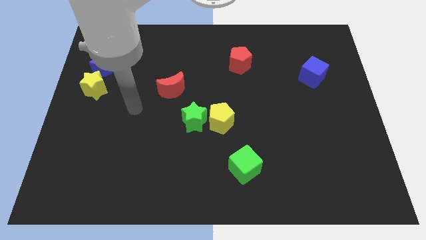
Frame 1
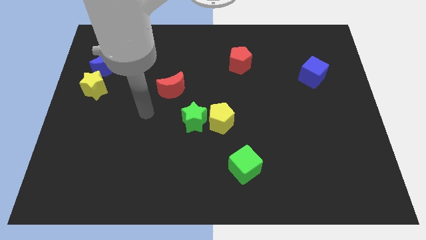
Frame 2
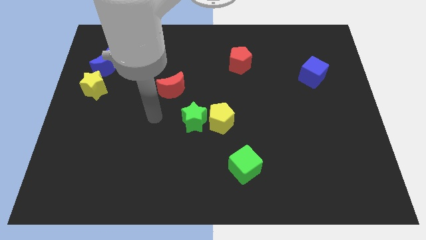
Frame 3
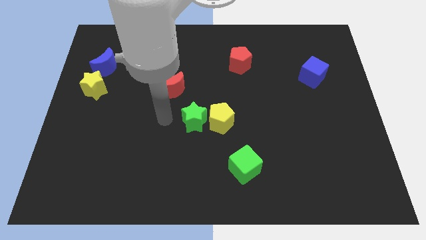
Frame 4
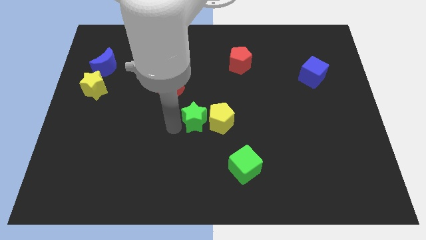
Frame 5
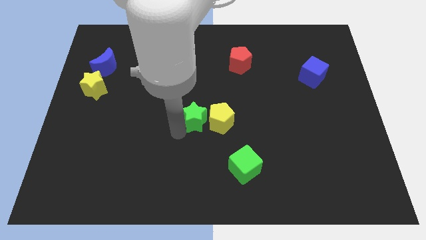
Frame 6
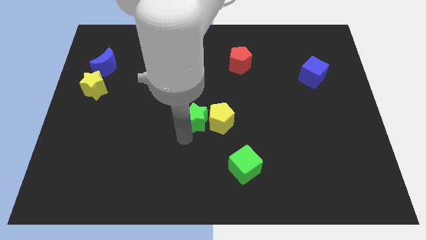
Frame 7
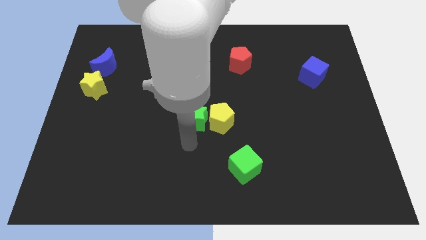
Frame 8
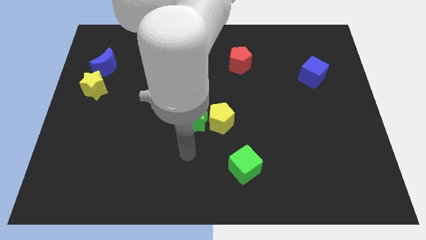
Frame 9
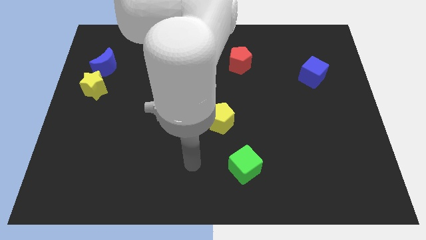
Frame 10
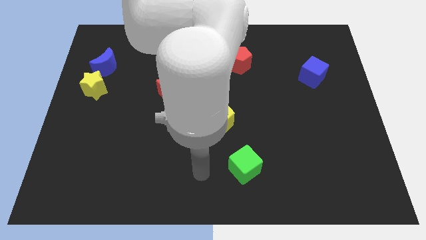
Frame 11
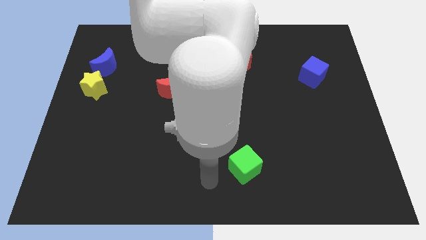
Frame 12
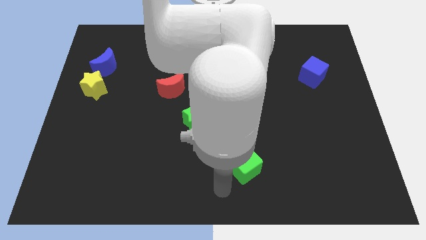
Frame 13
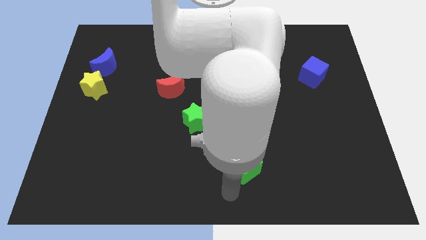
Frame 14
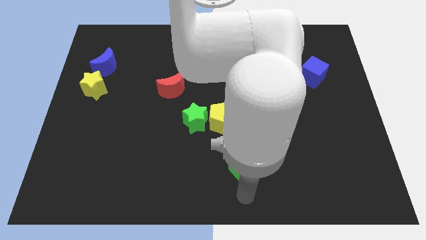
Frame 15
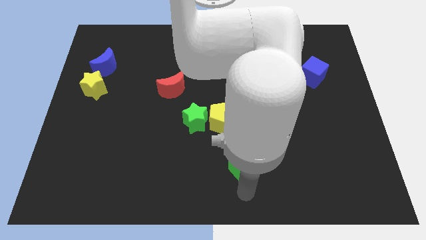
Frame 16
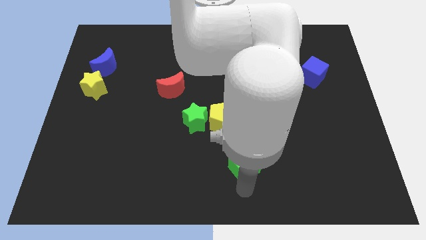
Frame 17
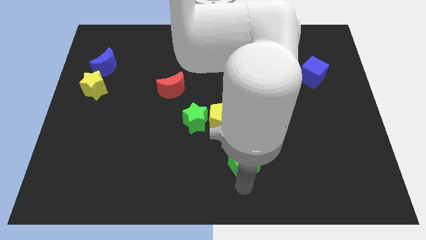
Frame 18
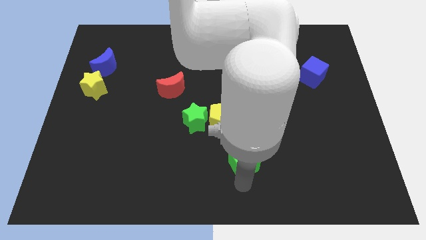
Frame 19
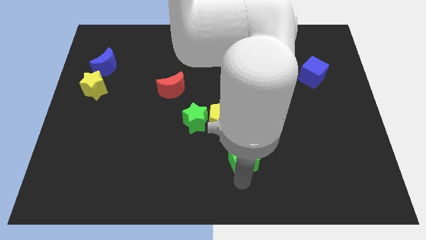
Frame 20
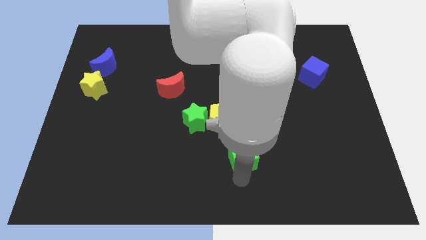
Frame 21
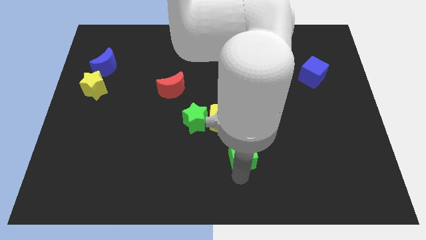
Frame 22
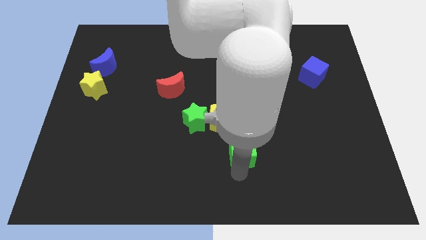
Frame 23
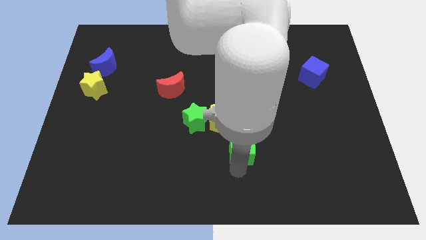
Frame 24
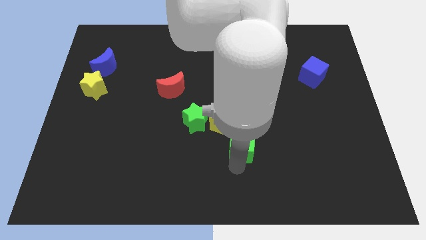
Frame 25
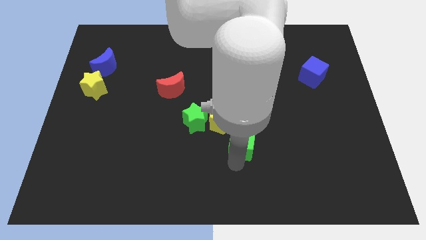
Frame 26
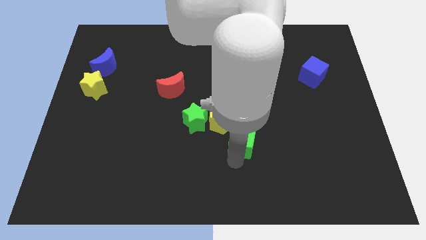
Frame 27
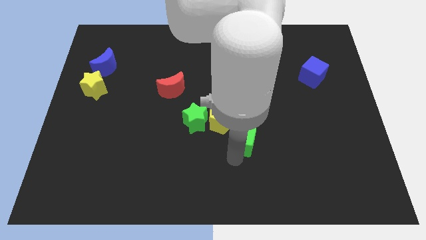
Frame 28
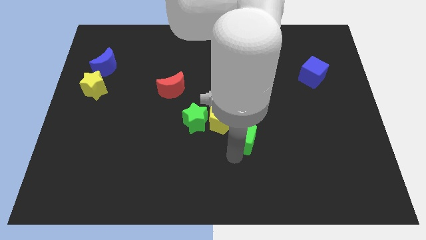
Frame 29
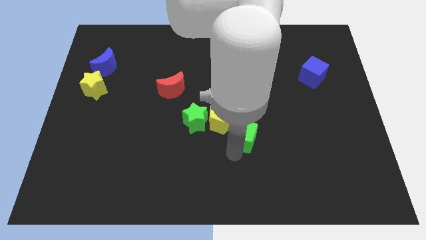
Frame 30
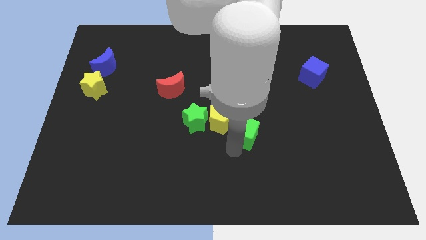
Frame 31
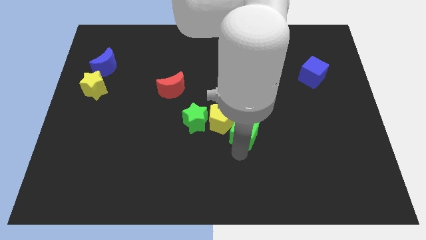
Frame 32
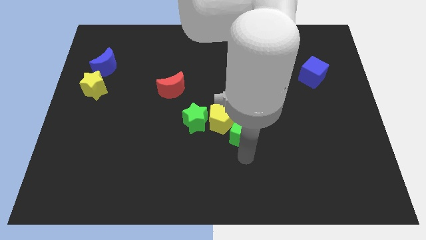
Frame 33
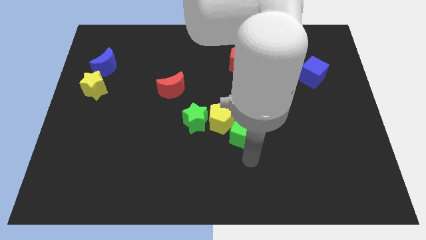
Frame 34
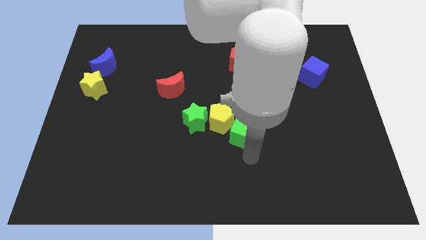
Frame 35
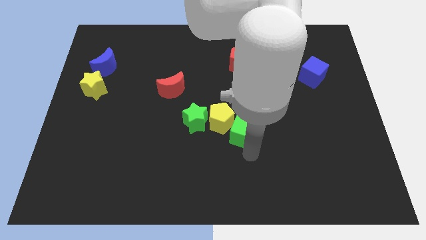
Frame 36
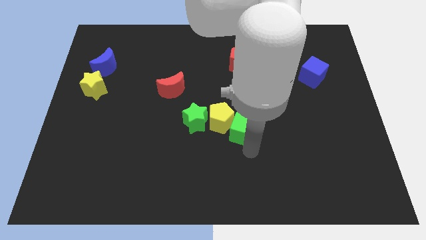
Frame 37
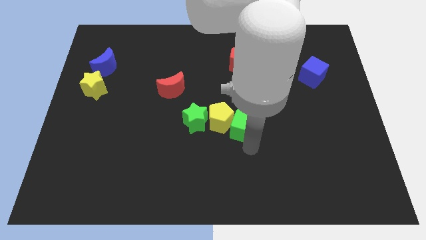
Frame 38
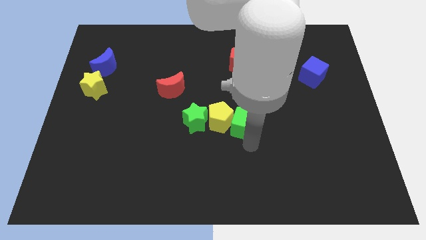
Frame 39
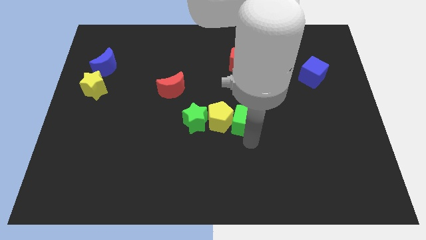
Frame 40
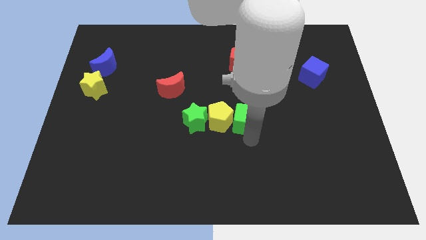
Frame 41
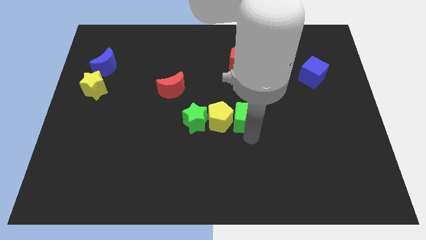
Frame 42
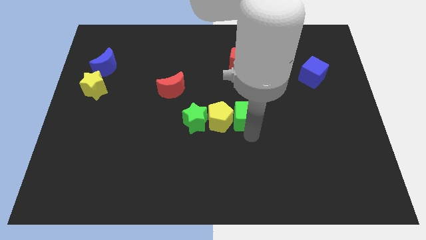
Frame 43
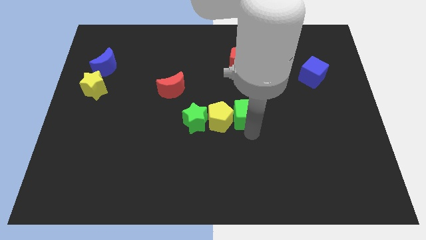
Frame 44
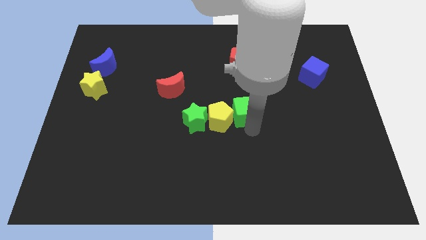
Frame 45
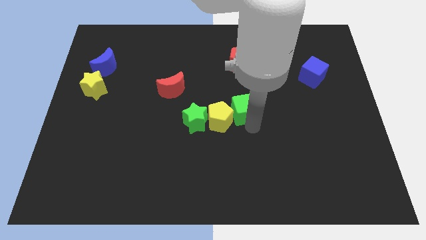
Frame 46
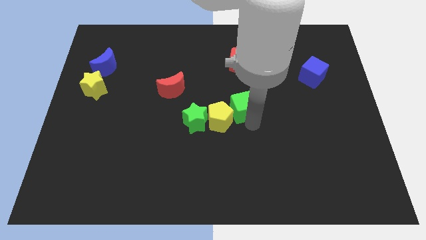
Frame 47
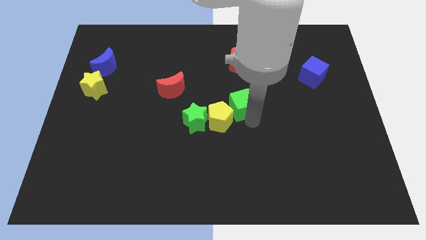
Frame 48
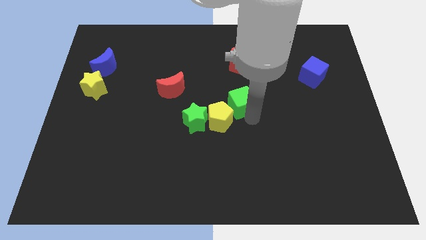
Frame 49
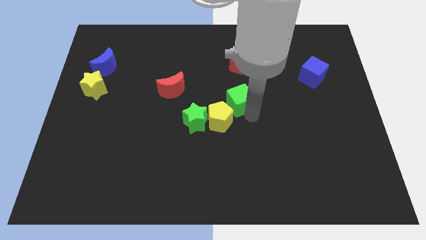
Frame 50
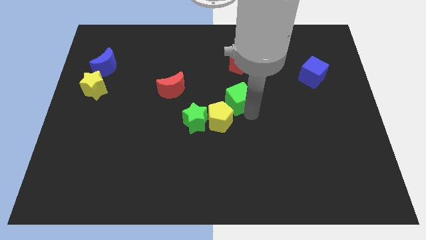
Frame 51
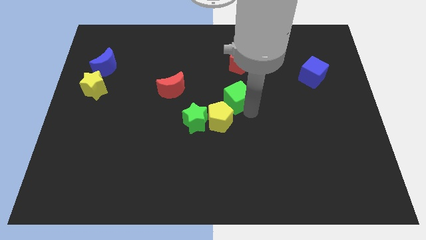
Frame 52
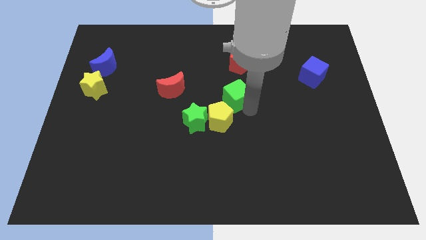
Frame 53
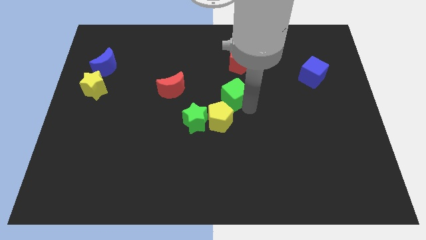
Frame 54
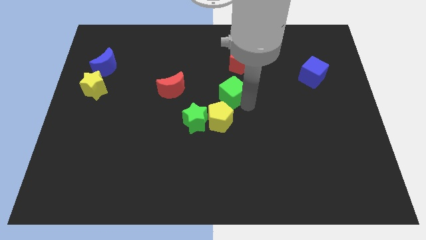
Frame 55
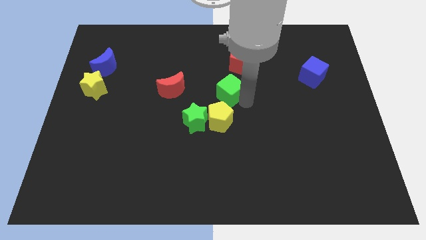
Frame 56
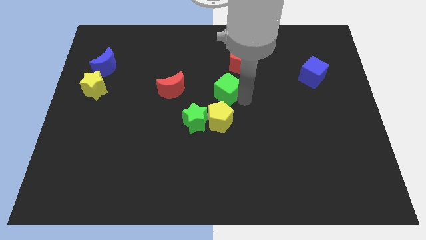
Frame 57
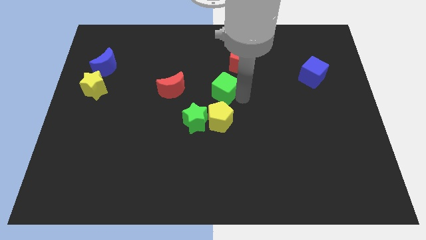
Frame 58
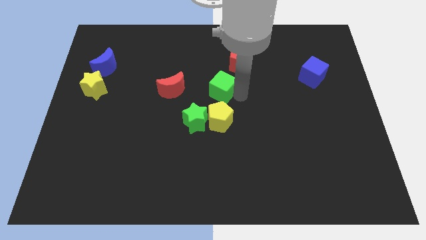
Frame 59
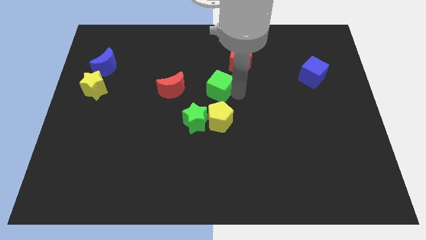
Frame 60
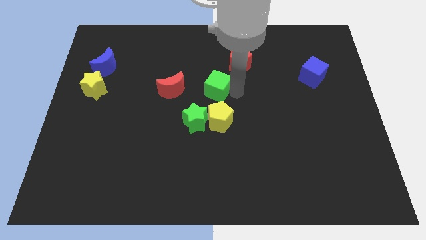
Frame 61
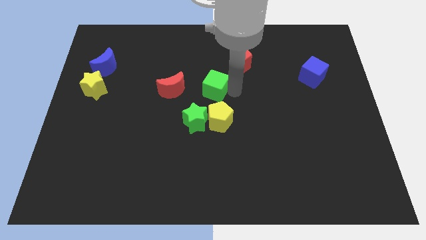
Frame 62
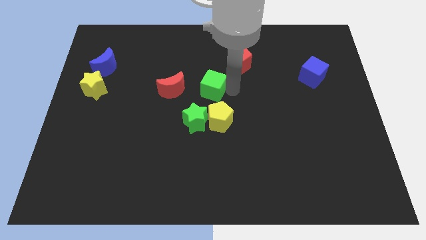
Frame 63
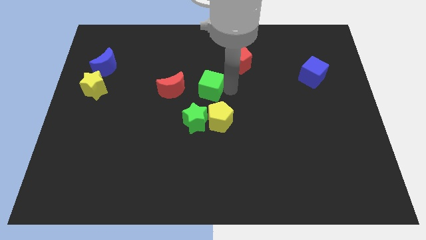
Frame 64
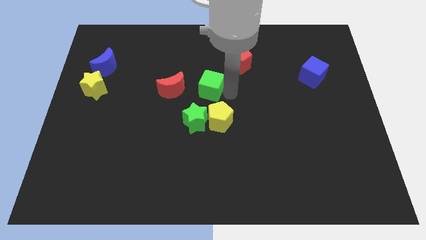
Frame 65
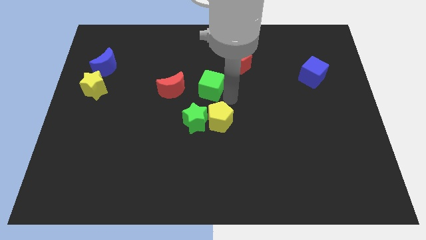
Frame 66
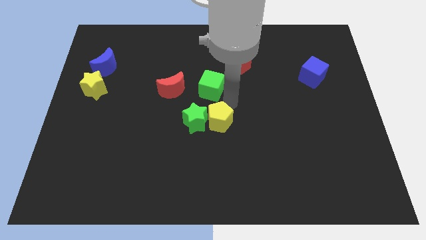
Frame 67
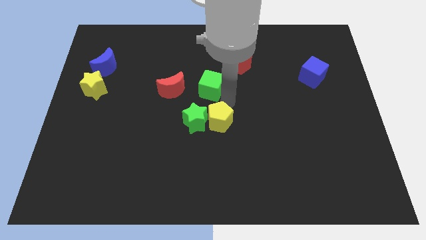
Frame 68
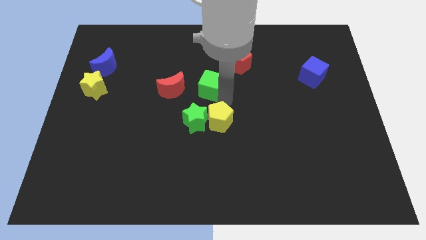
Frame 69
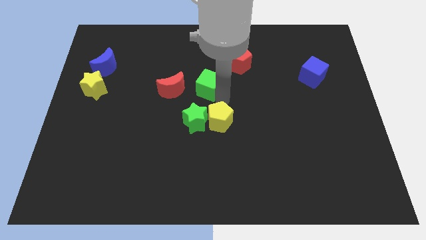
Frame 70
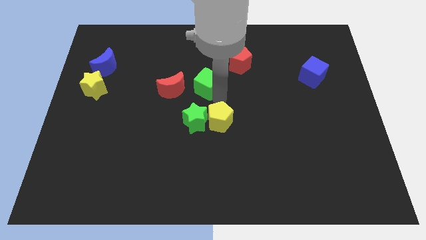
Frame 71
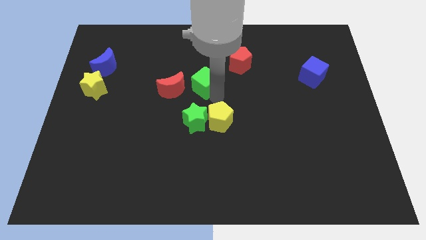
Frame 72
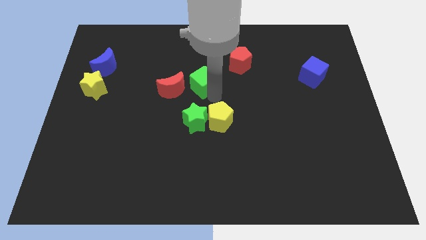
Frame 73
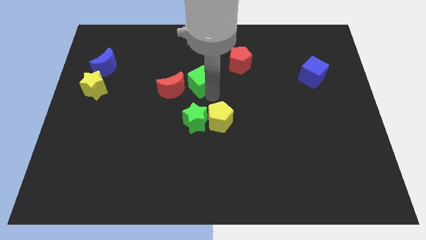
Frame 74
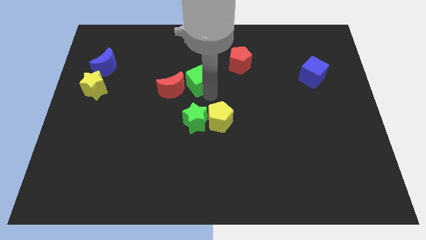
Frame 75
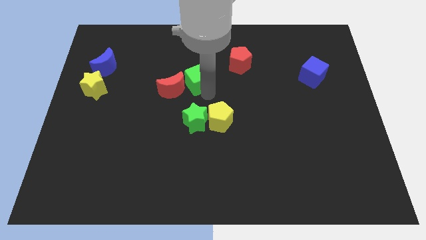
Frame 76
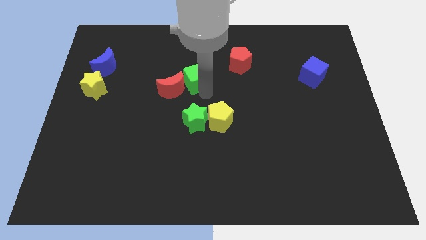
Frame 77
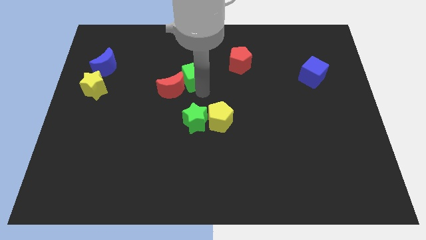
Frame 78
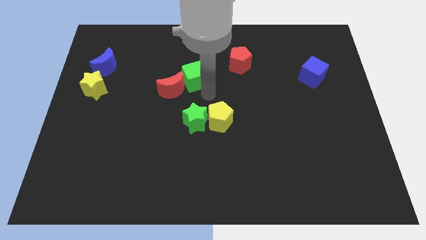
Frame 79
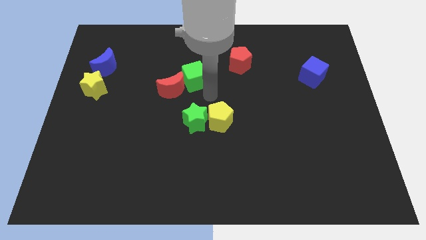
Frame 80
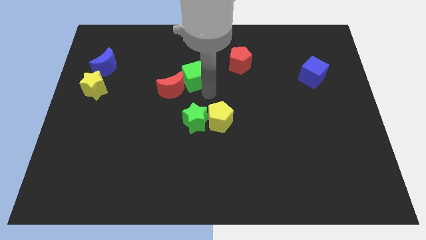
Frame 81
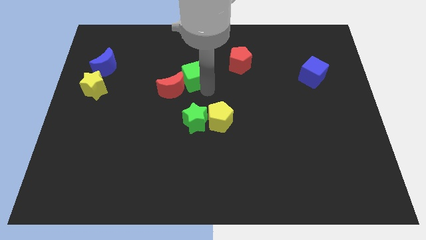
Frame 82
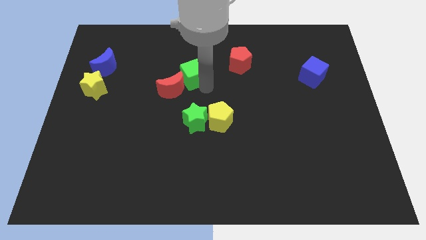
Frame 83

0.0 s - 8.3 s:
slide the green cube to the top side of the red moon
